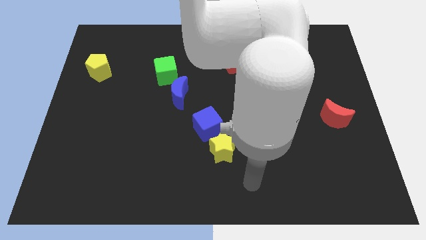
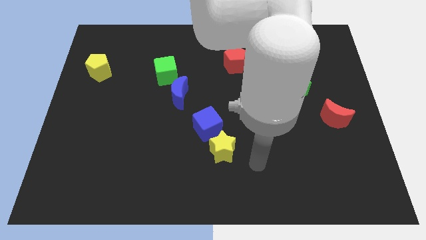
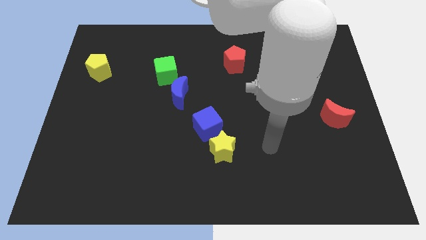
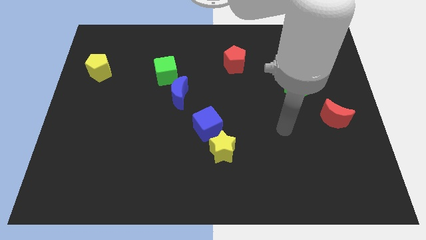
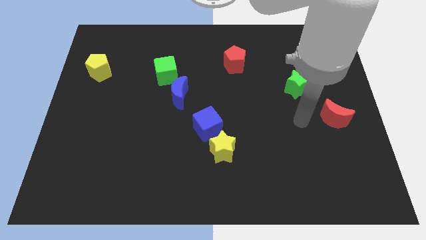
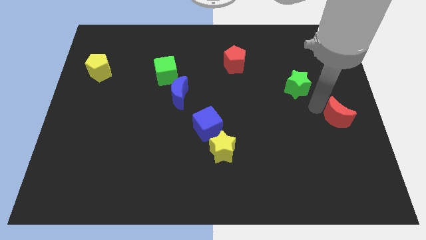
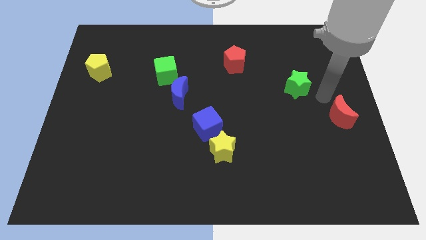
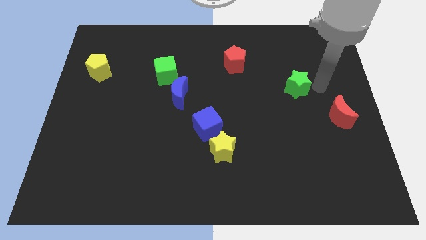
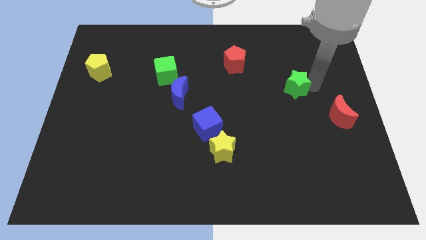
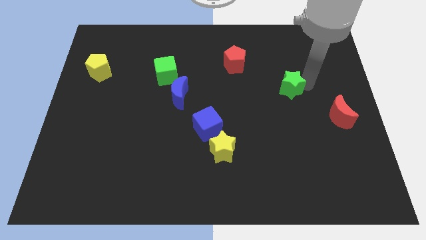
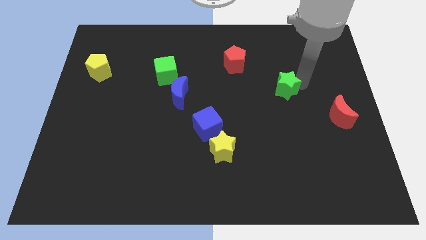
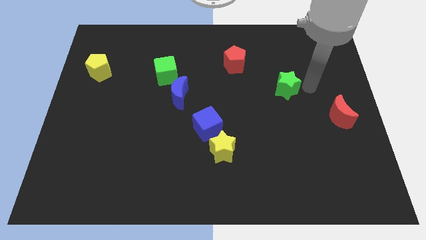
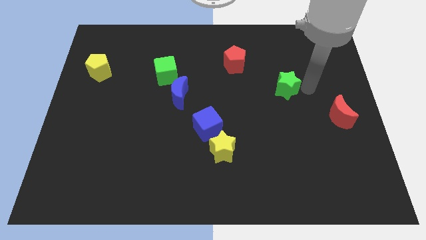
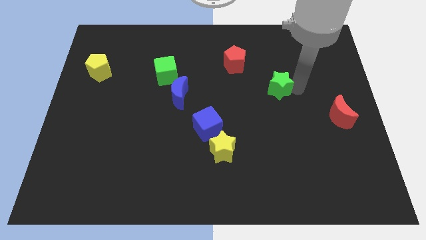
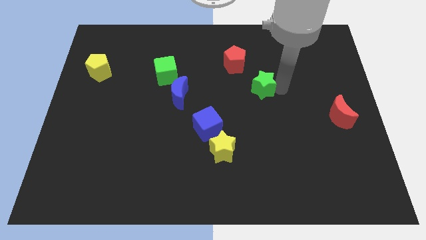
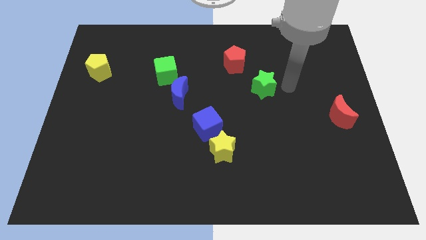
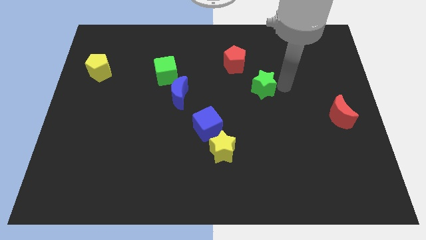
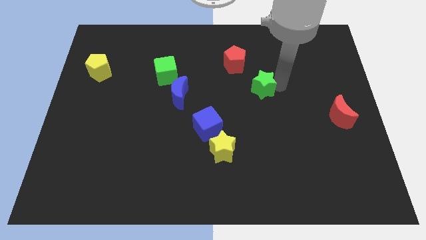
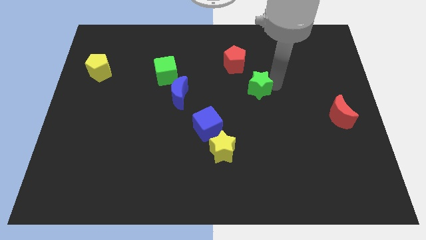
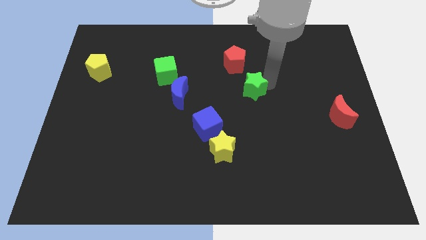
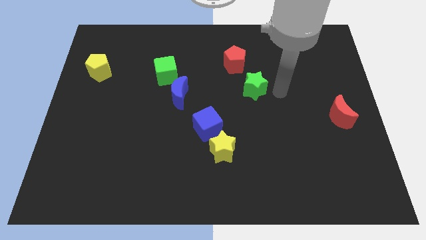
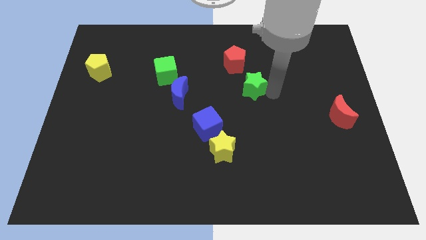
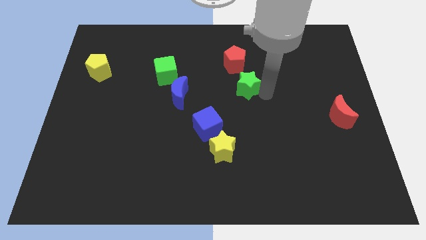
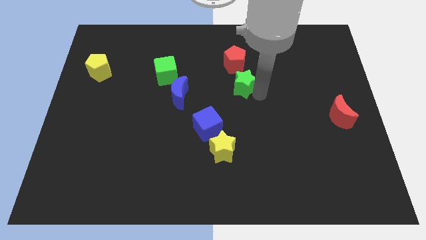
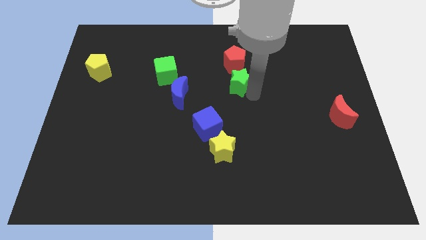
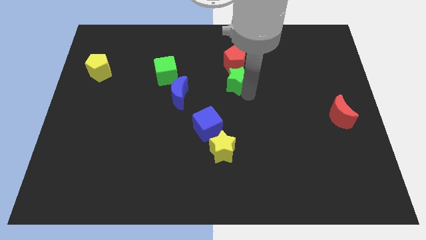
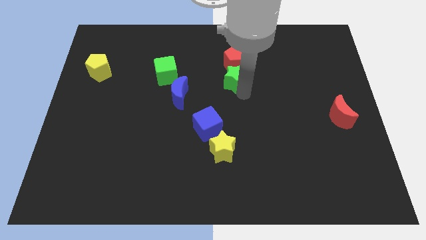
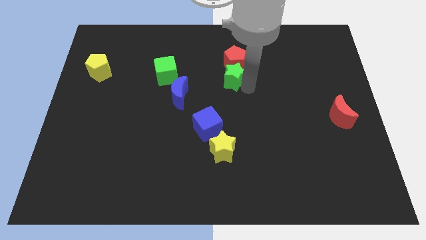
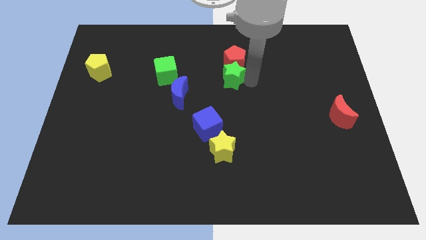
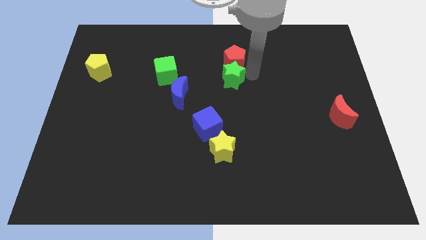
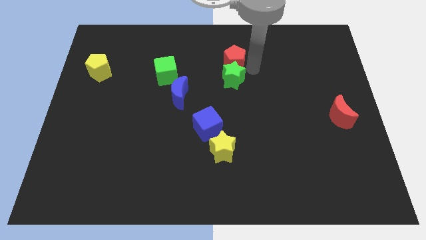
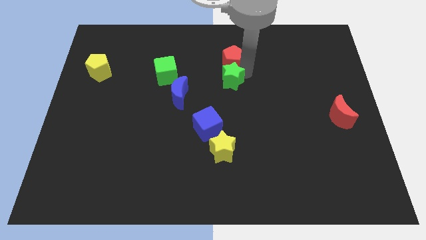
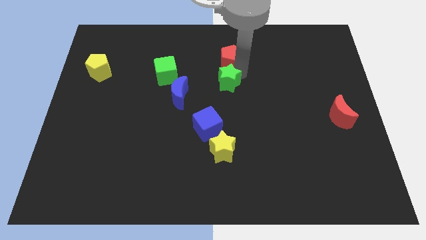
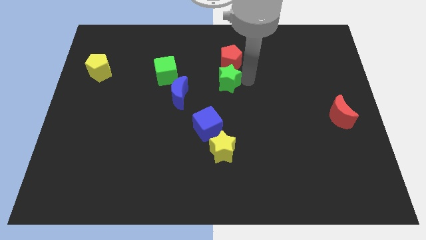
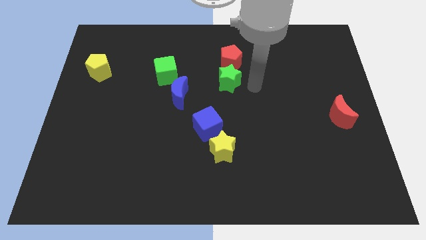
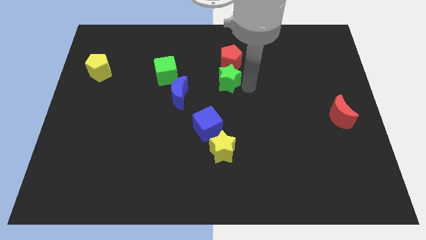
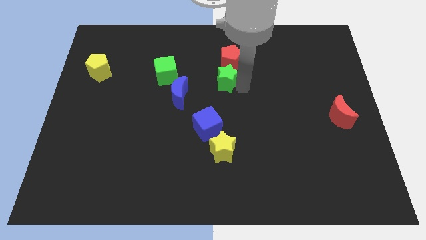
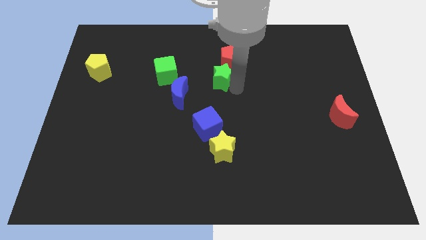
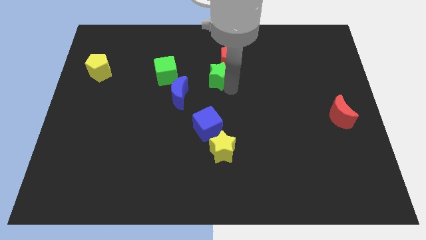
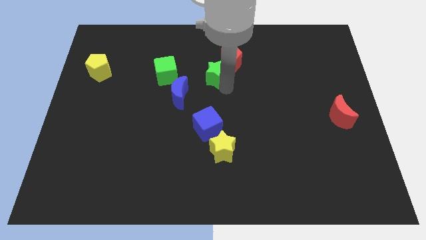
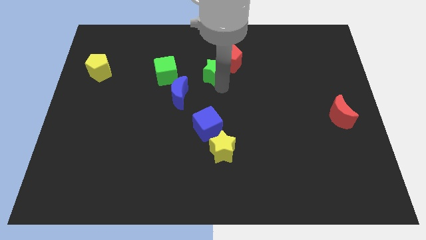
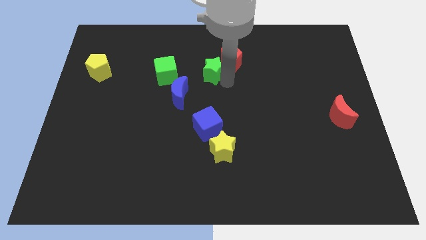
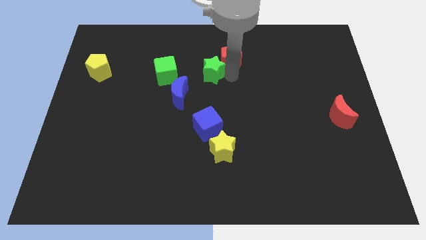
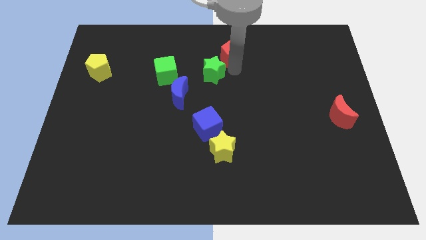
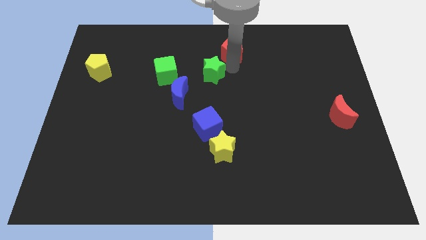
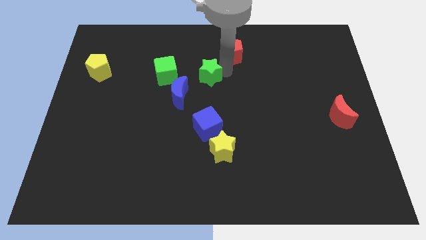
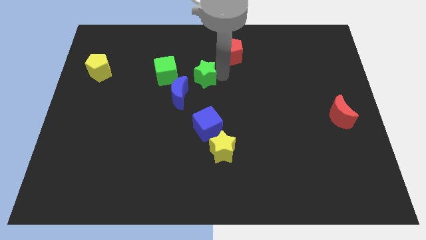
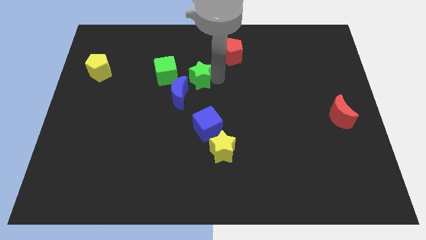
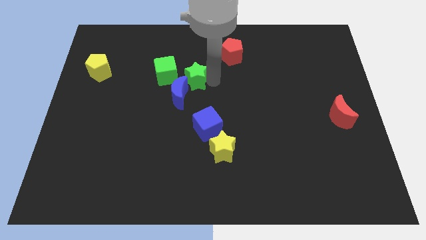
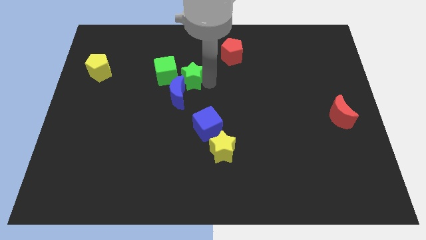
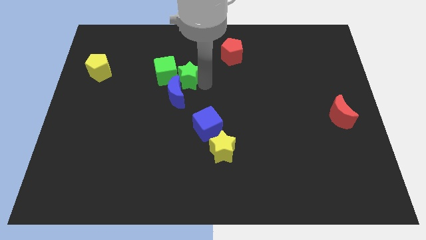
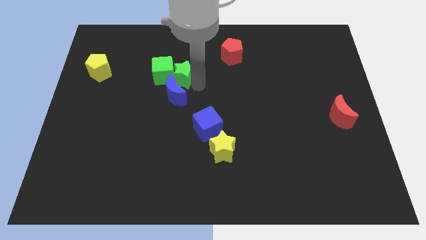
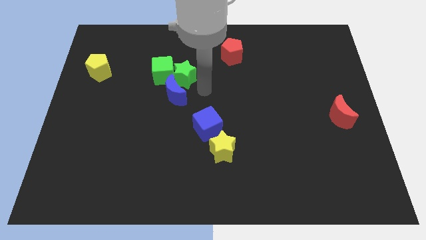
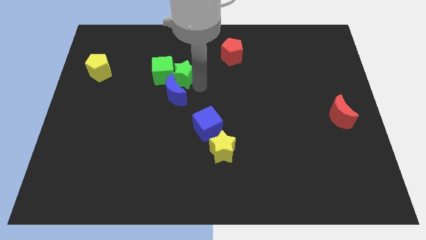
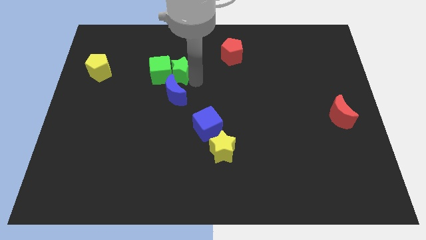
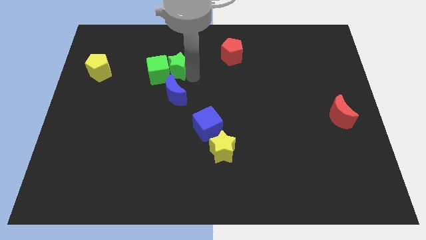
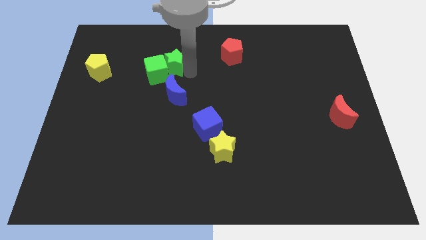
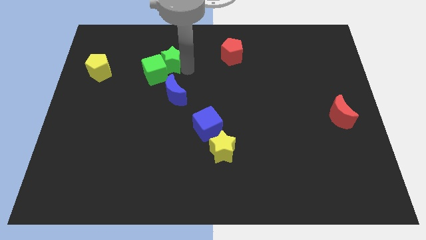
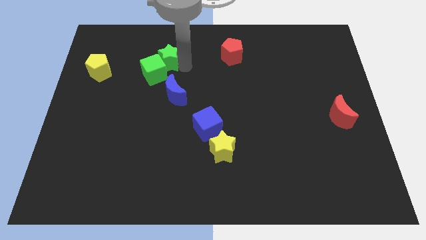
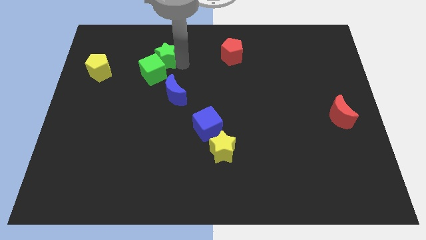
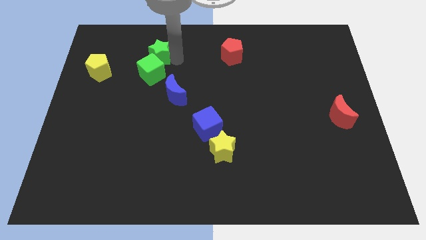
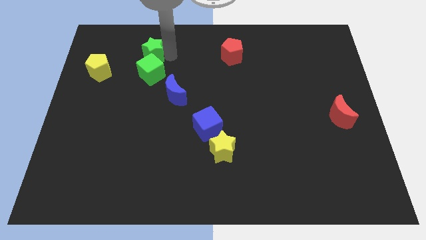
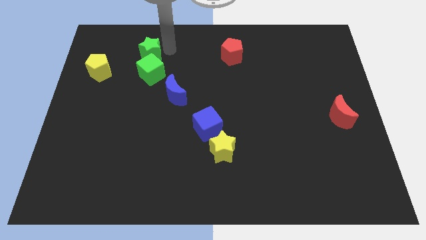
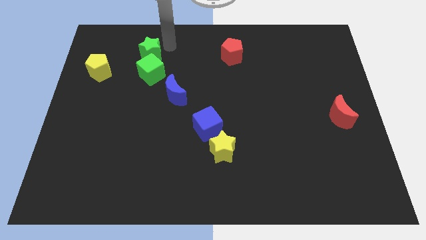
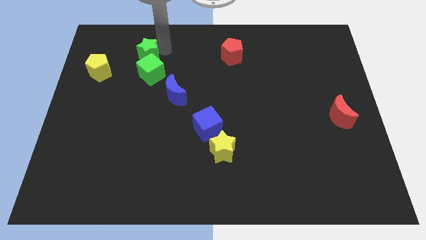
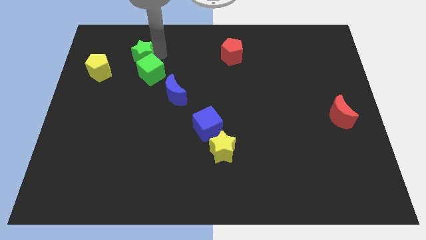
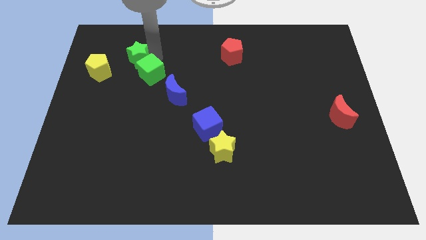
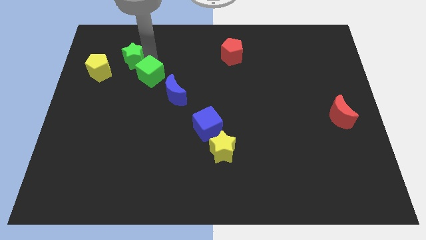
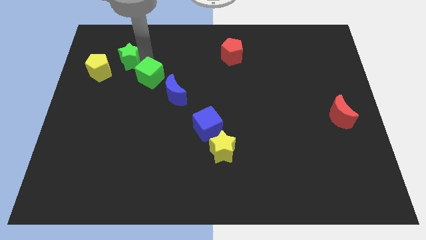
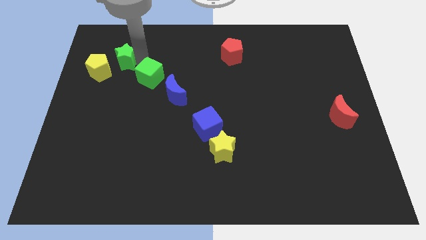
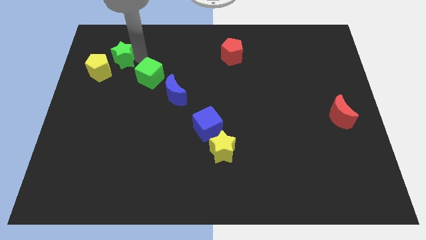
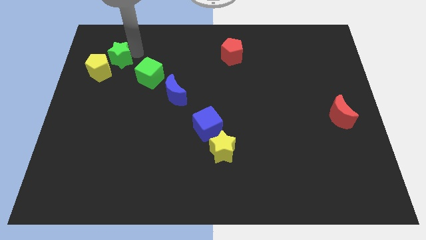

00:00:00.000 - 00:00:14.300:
push the green star towards the yellow pentagon
